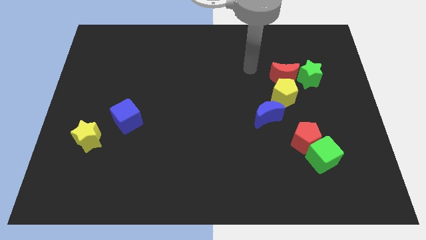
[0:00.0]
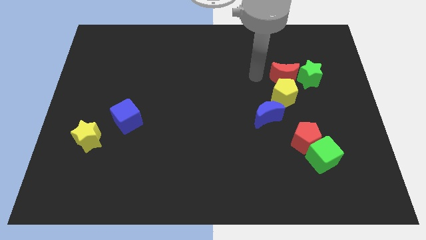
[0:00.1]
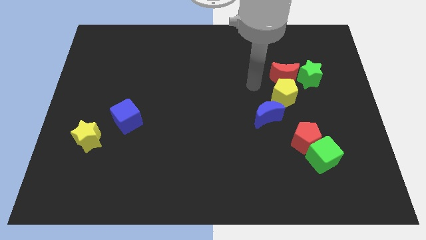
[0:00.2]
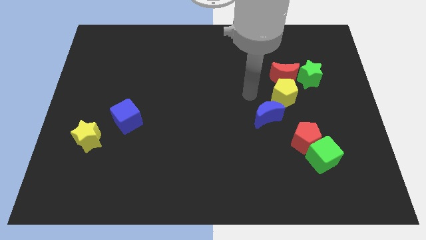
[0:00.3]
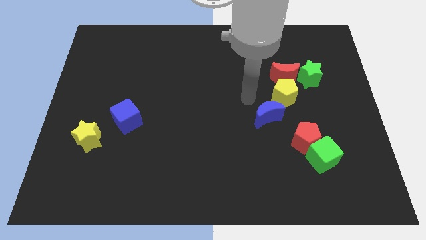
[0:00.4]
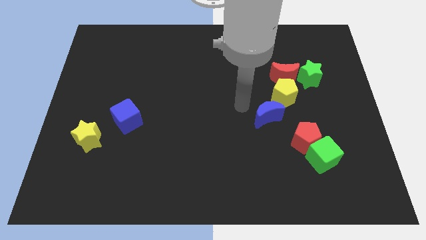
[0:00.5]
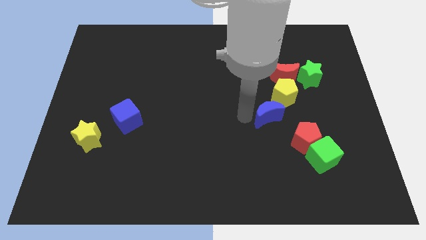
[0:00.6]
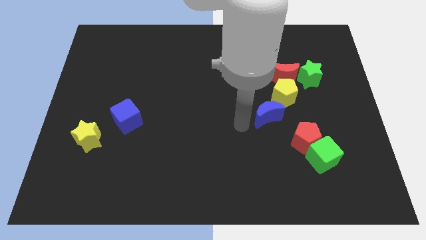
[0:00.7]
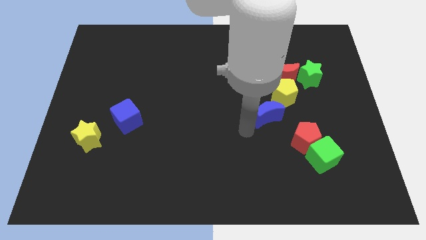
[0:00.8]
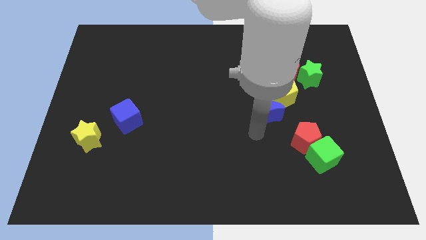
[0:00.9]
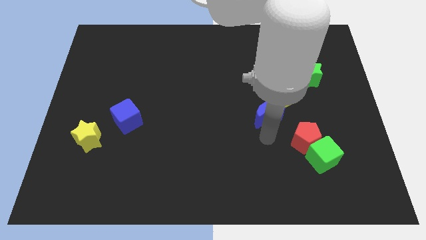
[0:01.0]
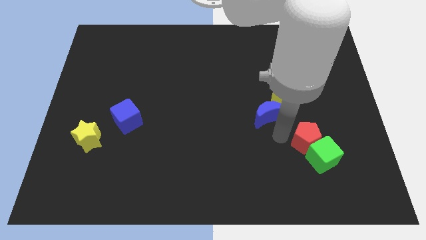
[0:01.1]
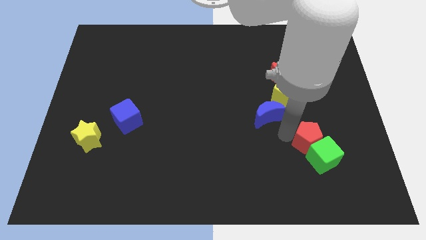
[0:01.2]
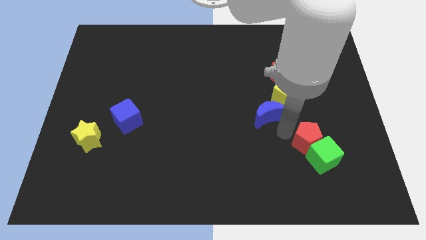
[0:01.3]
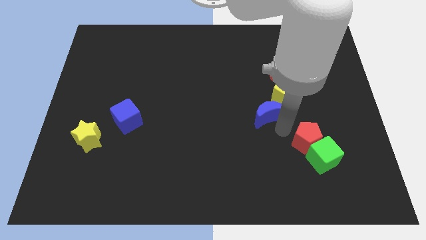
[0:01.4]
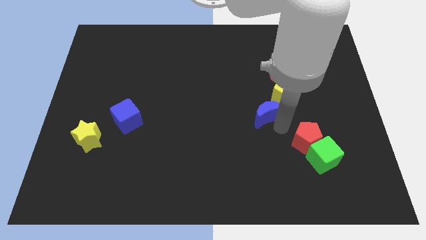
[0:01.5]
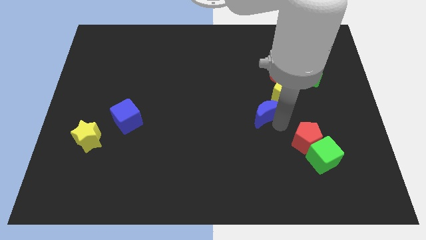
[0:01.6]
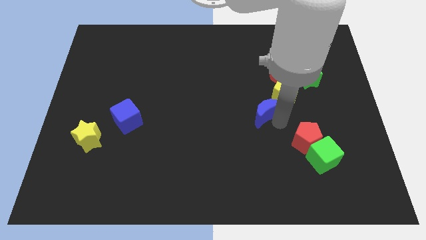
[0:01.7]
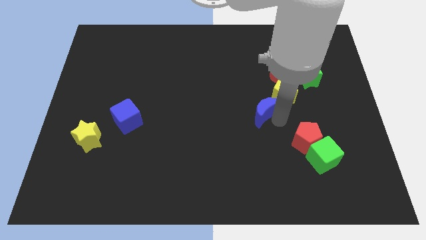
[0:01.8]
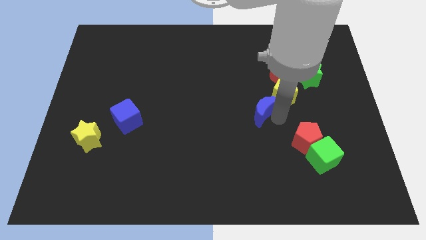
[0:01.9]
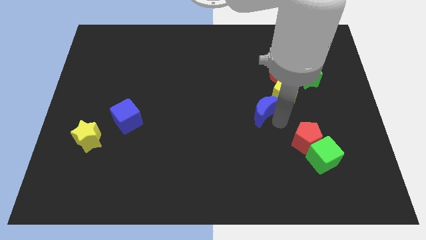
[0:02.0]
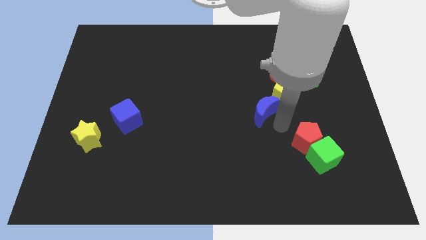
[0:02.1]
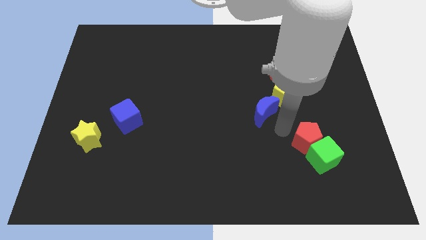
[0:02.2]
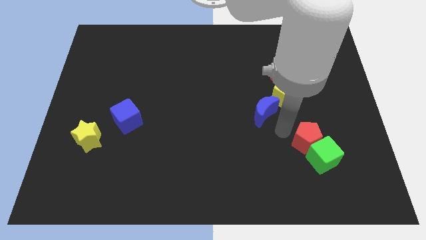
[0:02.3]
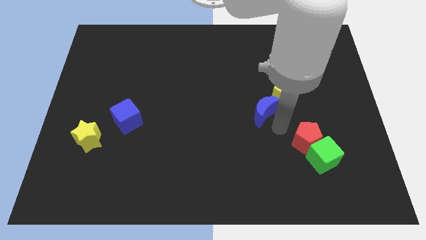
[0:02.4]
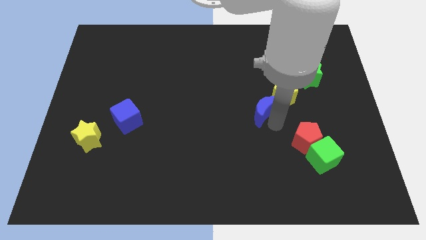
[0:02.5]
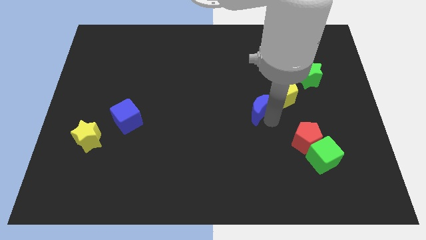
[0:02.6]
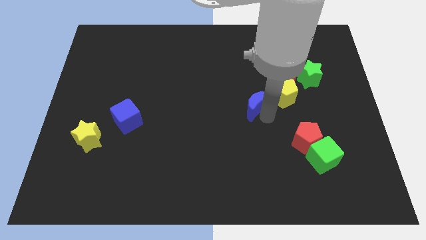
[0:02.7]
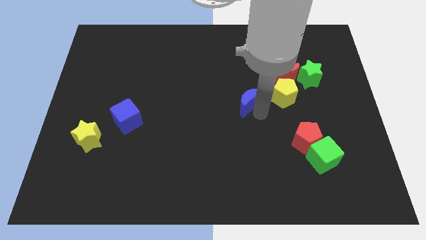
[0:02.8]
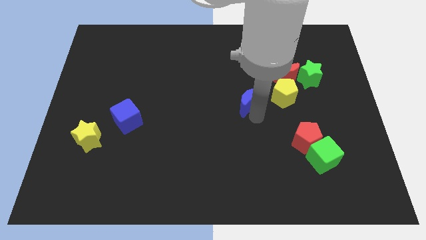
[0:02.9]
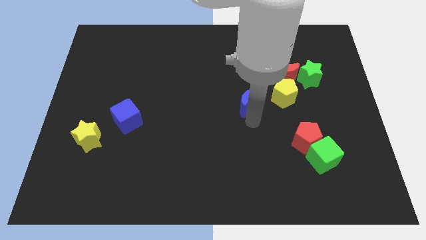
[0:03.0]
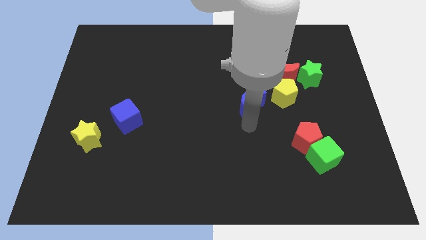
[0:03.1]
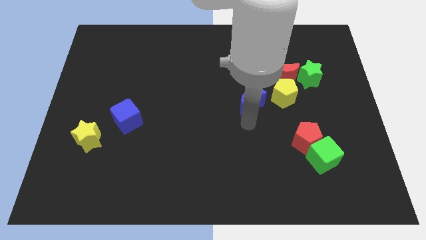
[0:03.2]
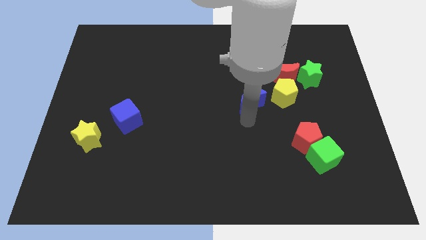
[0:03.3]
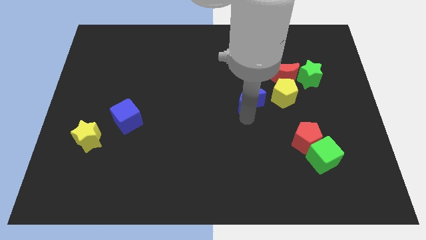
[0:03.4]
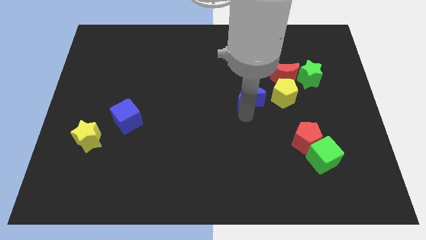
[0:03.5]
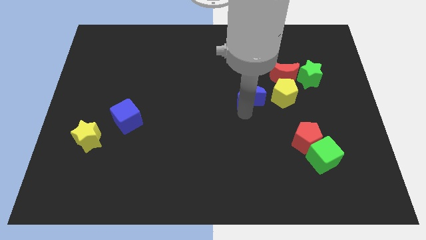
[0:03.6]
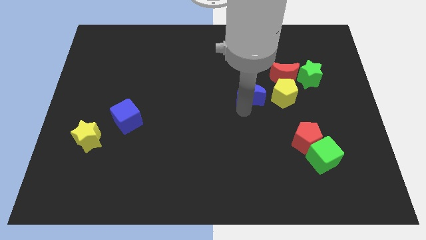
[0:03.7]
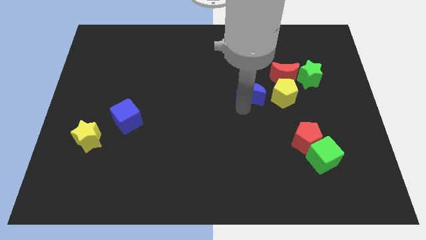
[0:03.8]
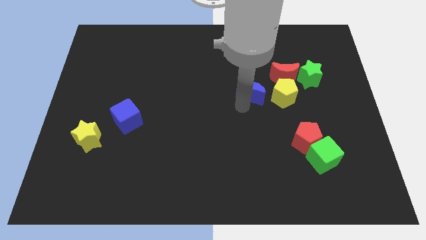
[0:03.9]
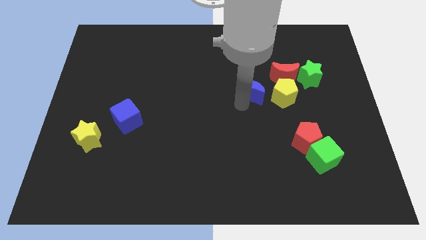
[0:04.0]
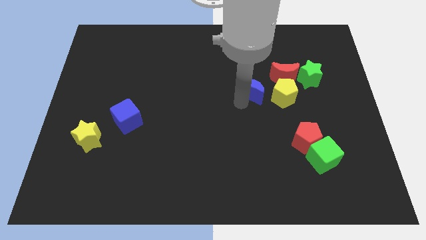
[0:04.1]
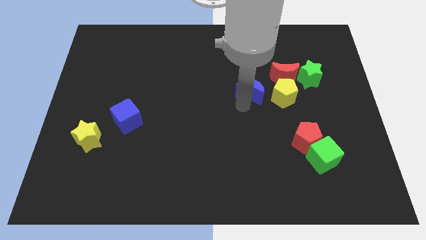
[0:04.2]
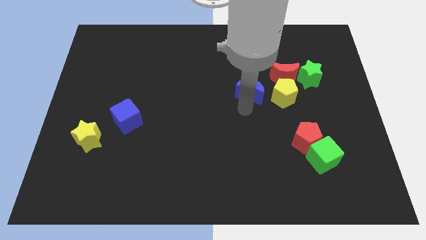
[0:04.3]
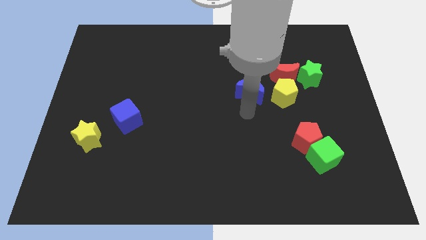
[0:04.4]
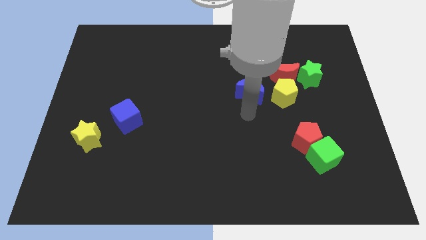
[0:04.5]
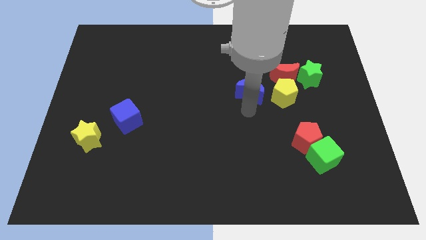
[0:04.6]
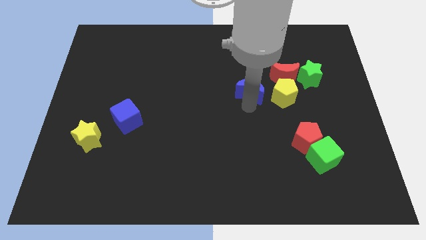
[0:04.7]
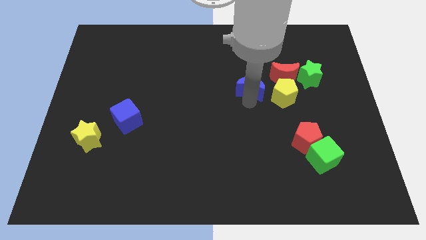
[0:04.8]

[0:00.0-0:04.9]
slightly slide the blue moon up

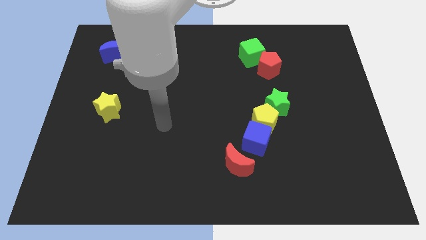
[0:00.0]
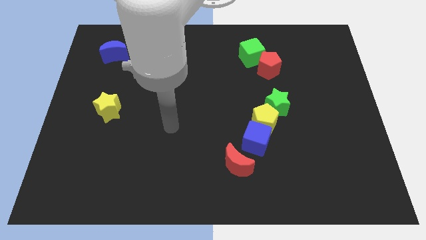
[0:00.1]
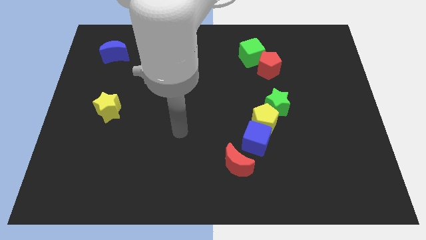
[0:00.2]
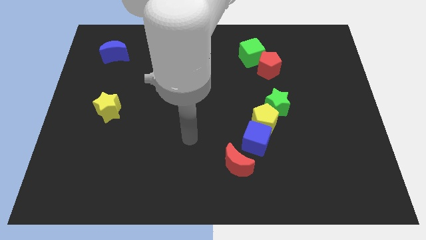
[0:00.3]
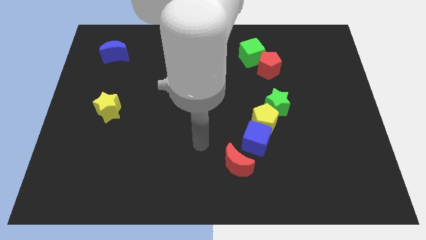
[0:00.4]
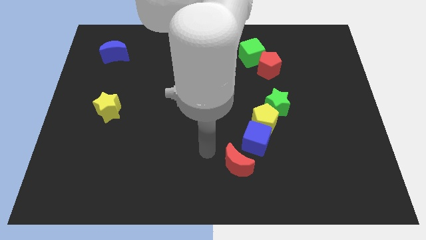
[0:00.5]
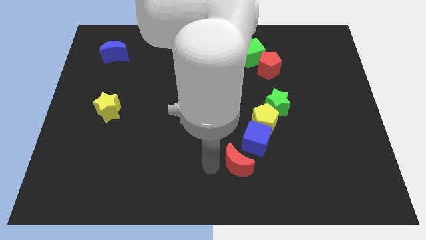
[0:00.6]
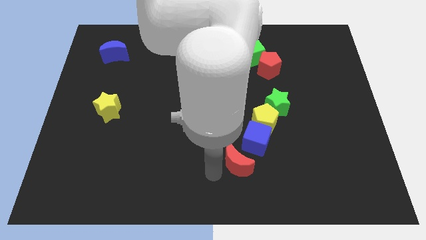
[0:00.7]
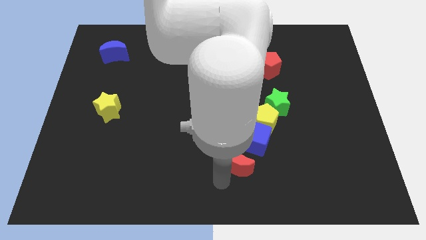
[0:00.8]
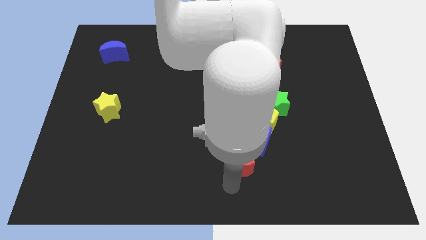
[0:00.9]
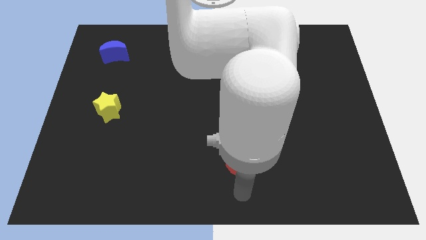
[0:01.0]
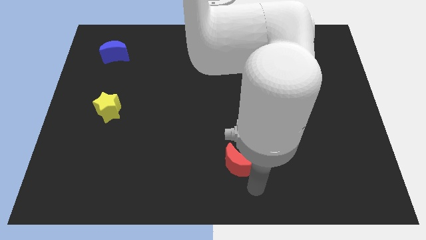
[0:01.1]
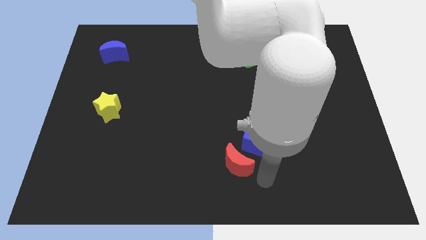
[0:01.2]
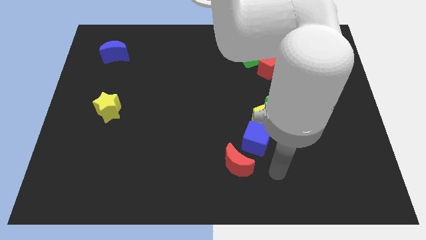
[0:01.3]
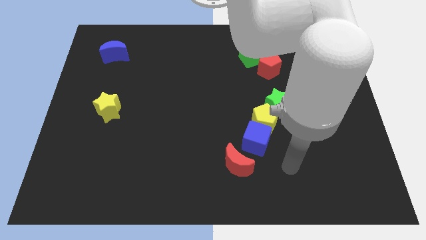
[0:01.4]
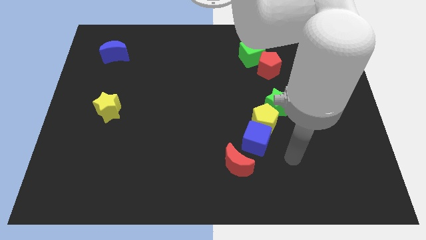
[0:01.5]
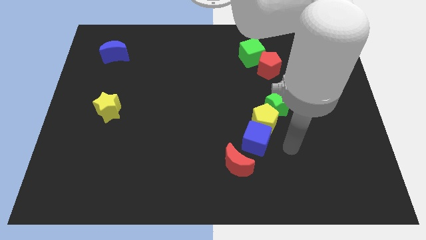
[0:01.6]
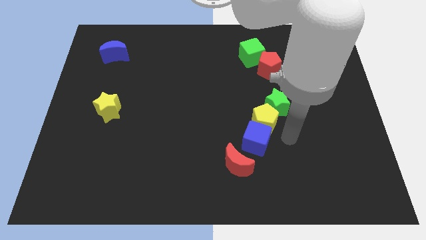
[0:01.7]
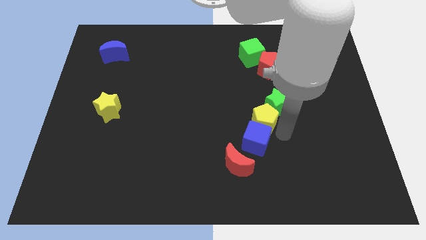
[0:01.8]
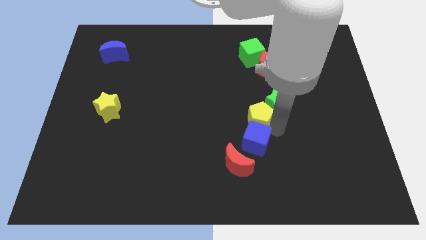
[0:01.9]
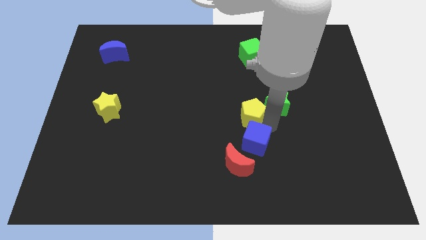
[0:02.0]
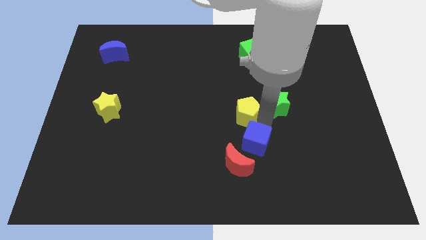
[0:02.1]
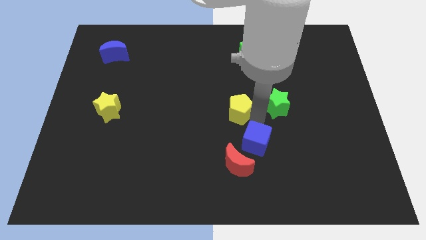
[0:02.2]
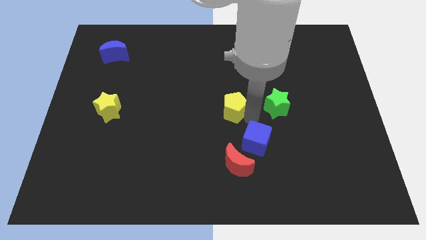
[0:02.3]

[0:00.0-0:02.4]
slightly move the yellow pentagon up and to the left

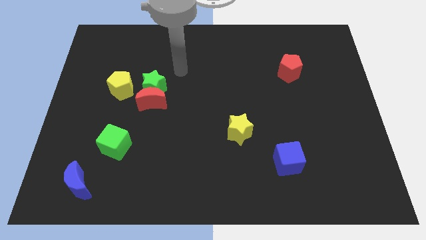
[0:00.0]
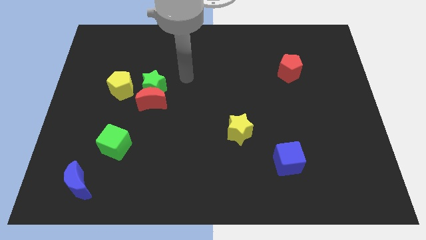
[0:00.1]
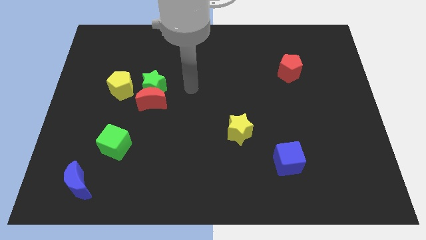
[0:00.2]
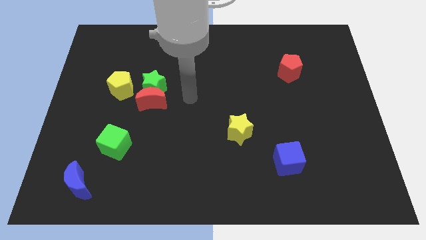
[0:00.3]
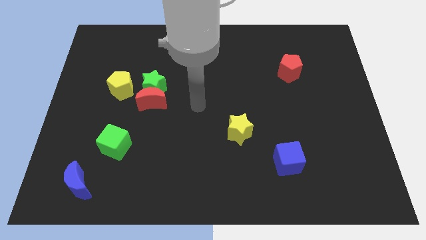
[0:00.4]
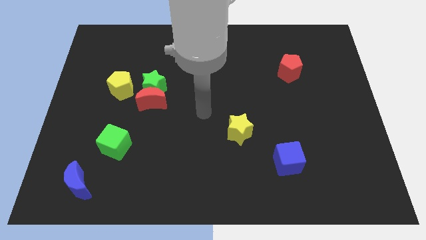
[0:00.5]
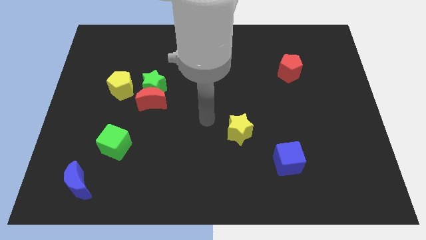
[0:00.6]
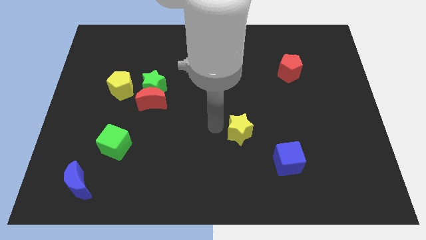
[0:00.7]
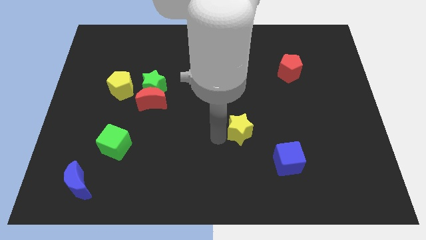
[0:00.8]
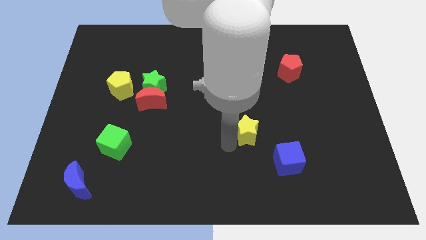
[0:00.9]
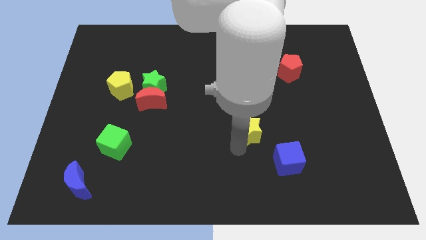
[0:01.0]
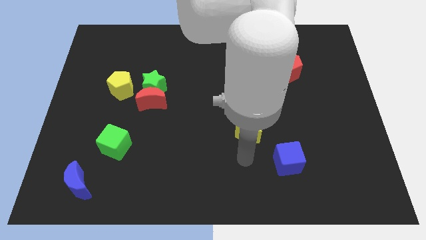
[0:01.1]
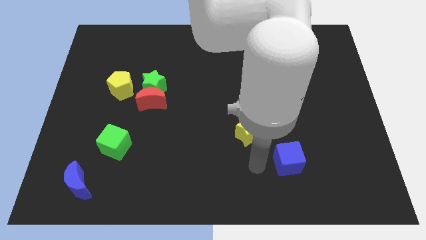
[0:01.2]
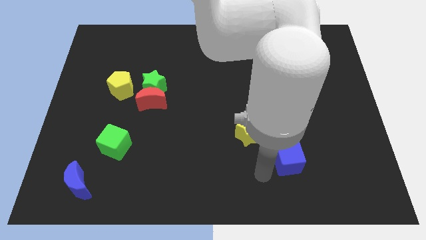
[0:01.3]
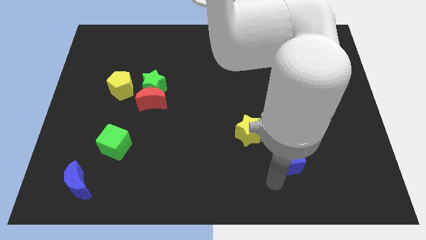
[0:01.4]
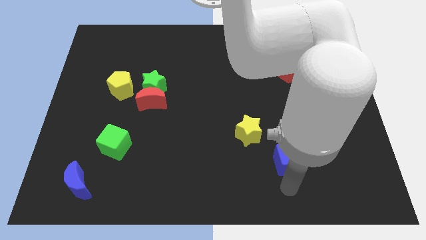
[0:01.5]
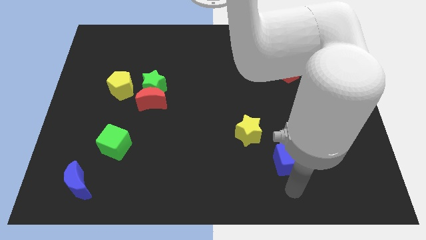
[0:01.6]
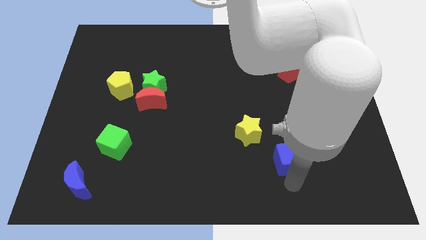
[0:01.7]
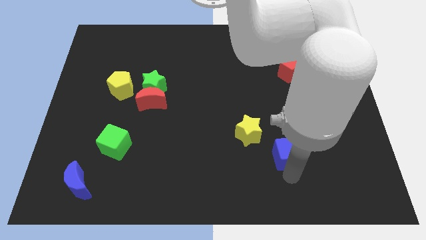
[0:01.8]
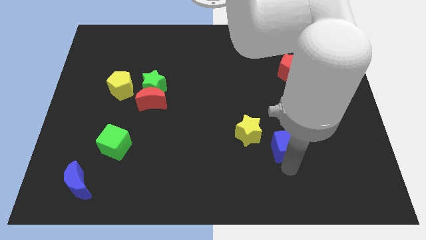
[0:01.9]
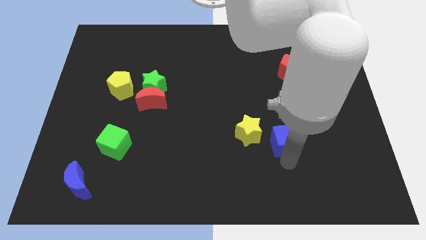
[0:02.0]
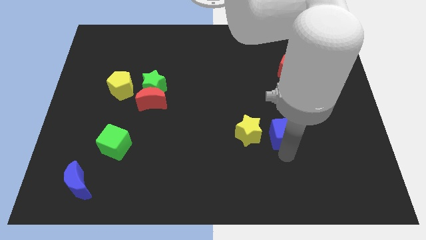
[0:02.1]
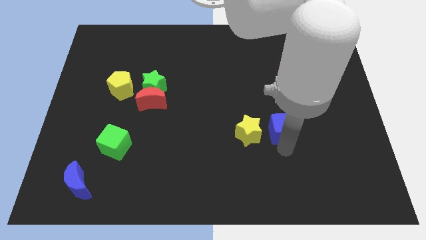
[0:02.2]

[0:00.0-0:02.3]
move the blue cube upwards a little bit
